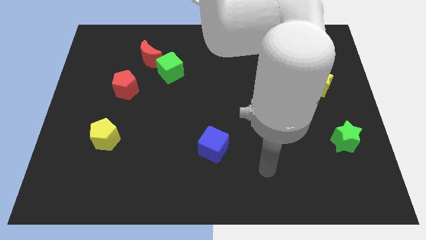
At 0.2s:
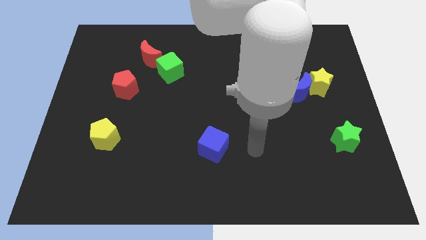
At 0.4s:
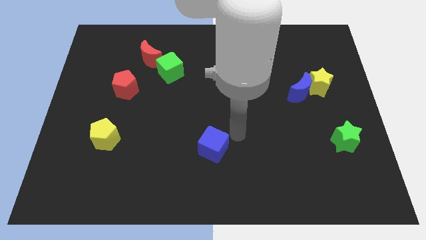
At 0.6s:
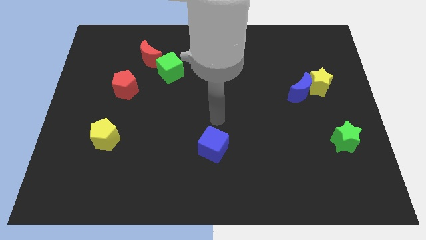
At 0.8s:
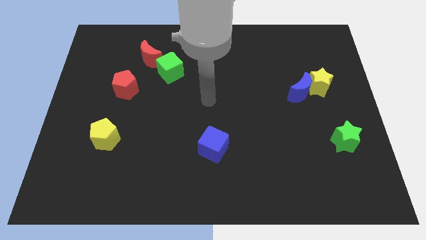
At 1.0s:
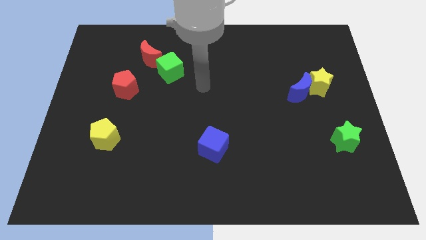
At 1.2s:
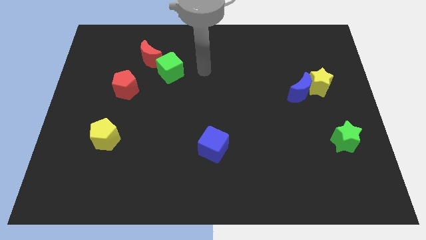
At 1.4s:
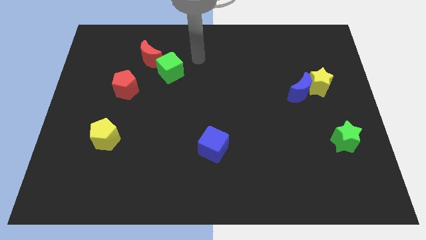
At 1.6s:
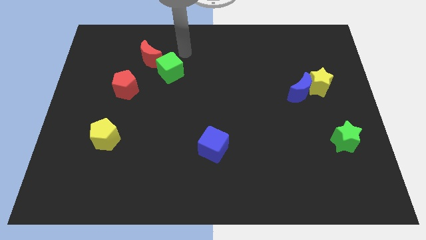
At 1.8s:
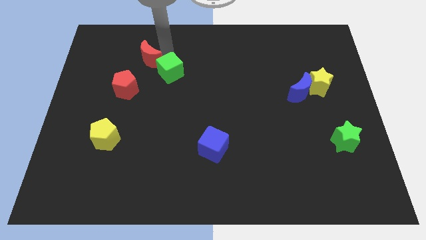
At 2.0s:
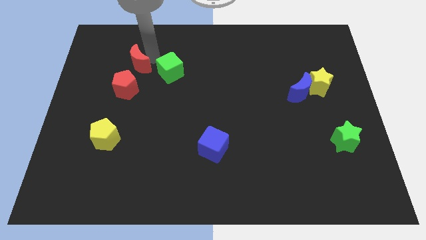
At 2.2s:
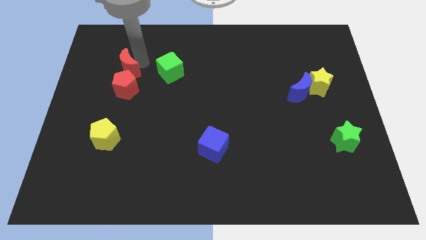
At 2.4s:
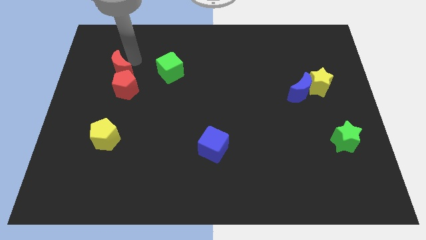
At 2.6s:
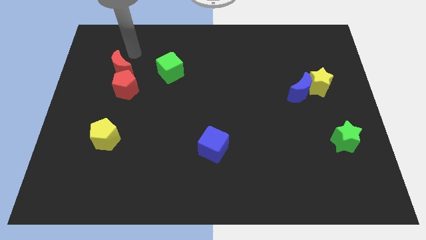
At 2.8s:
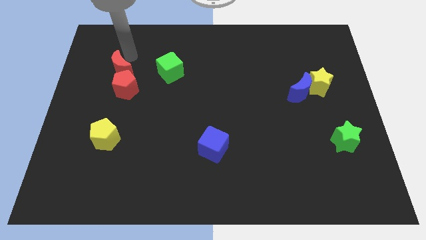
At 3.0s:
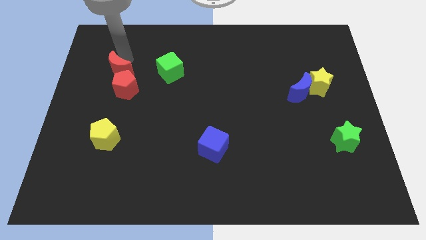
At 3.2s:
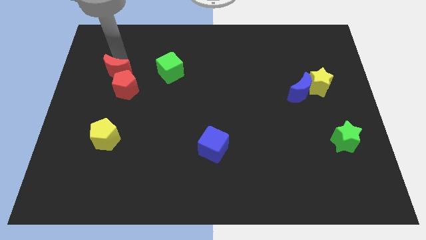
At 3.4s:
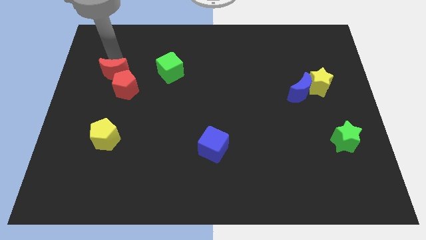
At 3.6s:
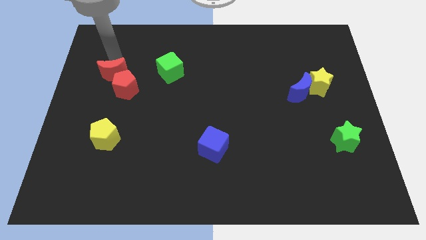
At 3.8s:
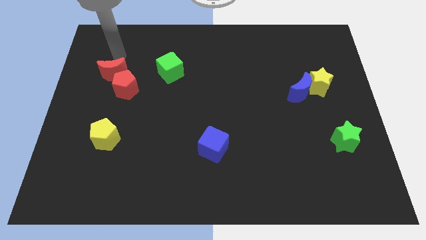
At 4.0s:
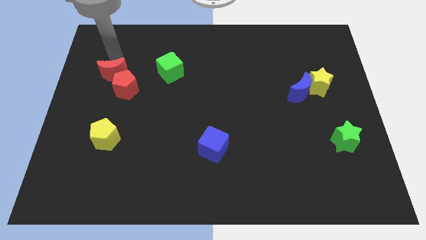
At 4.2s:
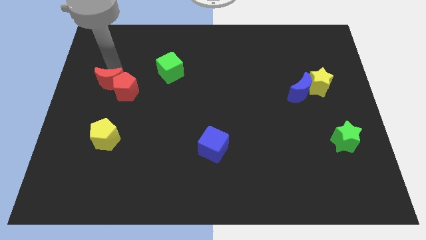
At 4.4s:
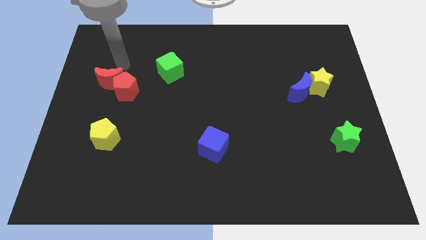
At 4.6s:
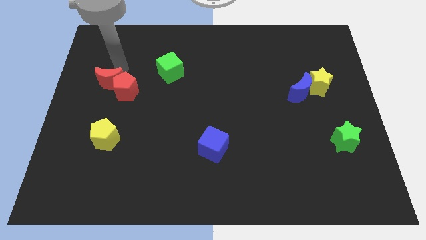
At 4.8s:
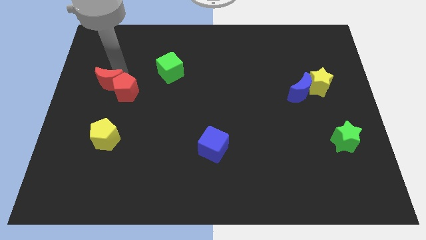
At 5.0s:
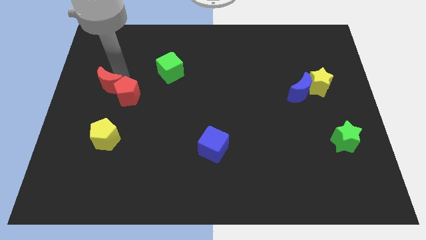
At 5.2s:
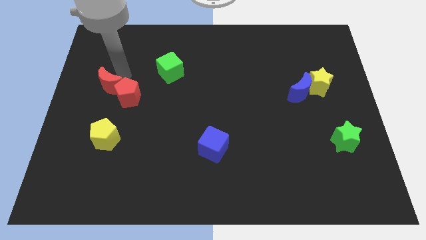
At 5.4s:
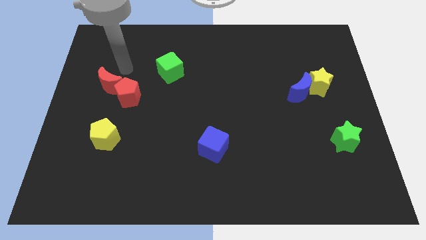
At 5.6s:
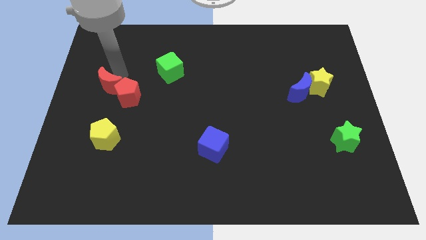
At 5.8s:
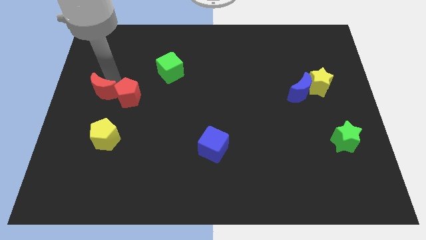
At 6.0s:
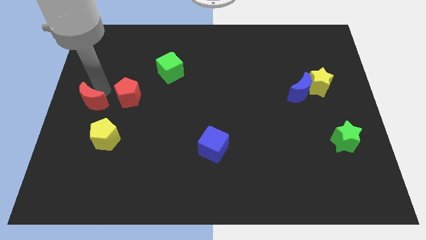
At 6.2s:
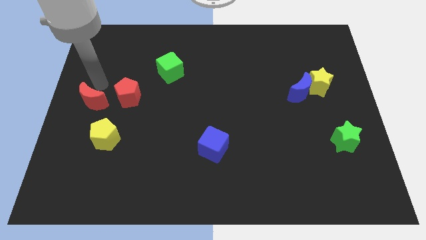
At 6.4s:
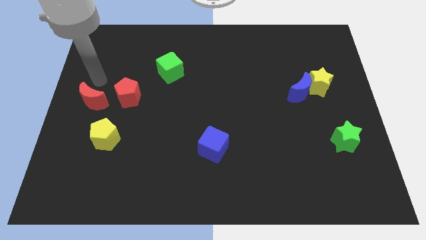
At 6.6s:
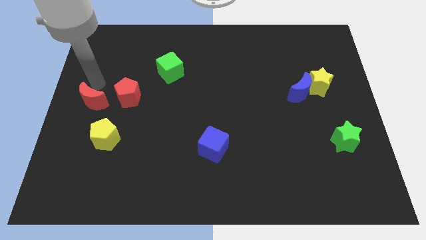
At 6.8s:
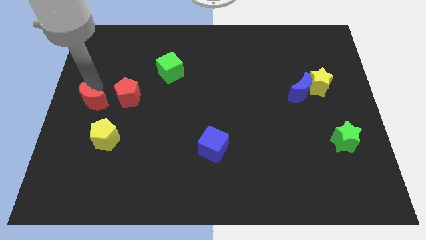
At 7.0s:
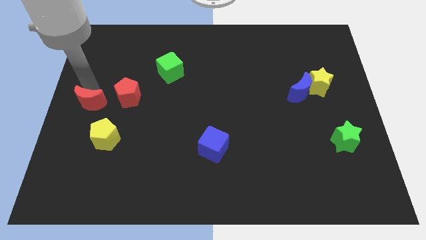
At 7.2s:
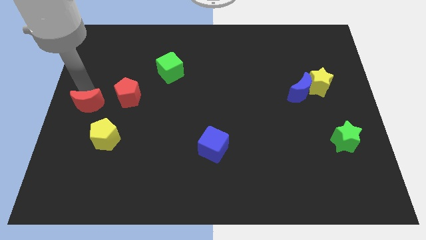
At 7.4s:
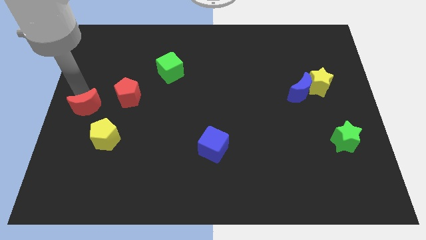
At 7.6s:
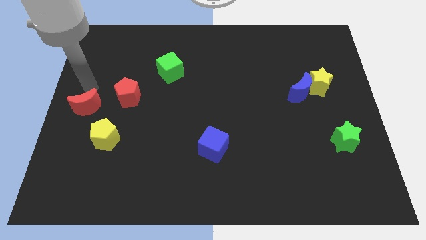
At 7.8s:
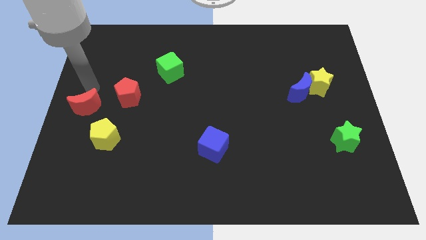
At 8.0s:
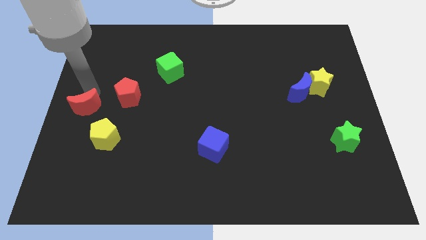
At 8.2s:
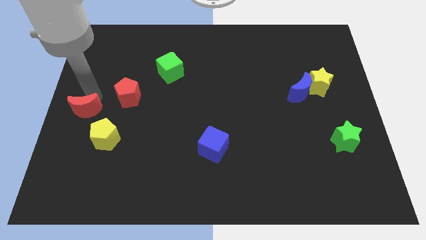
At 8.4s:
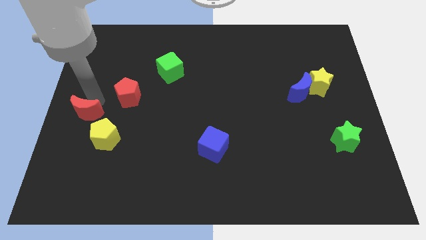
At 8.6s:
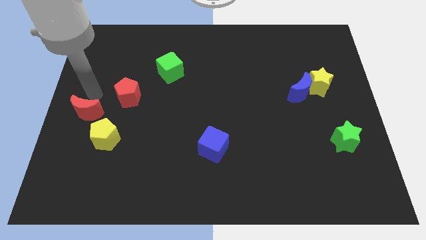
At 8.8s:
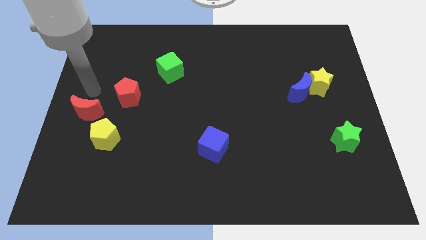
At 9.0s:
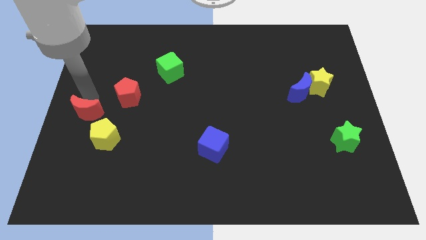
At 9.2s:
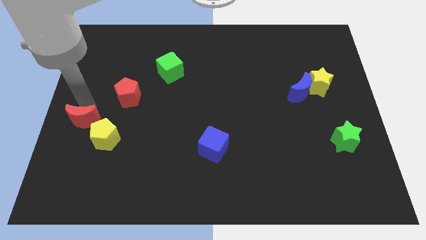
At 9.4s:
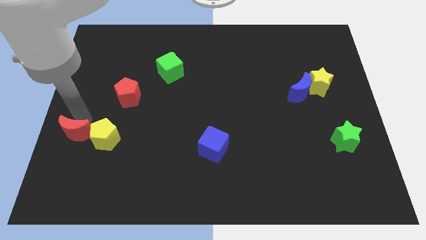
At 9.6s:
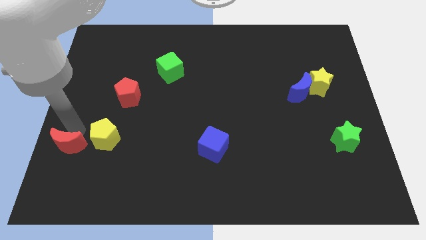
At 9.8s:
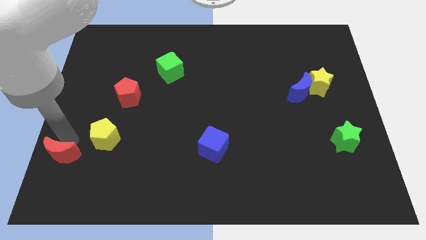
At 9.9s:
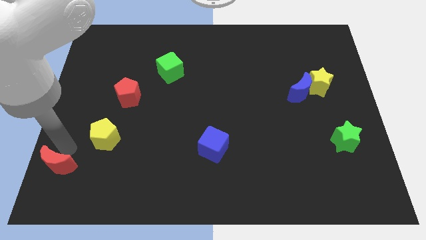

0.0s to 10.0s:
push the red moon to the bottom left of the board

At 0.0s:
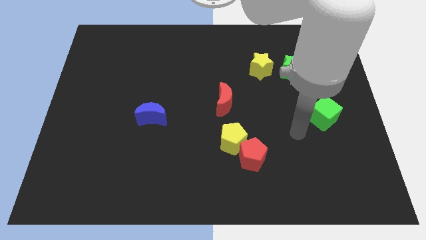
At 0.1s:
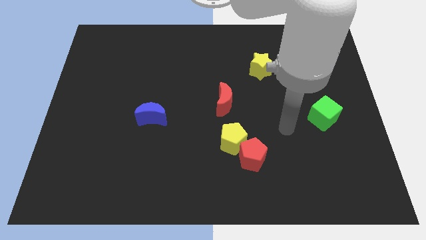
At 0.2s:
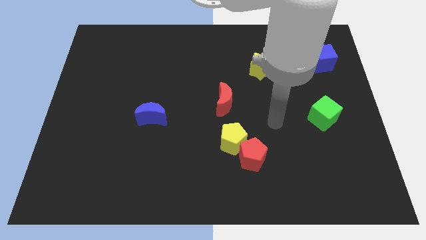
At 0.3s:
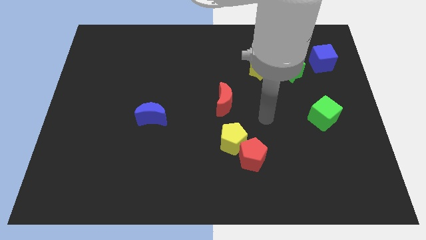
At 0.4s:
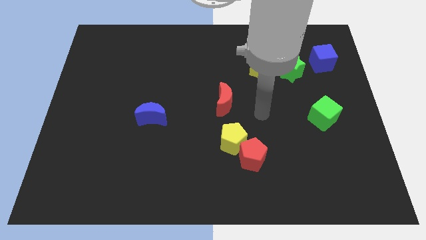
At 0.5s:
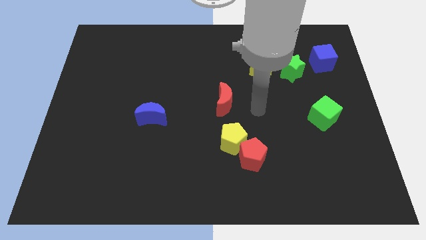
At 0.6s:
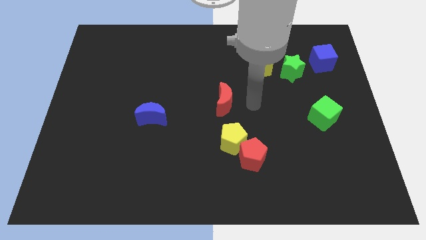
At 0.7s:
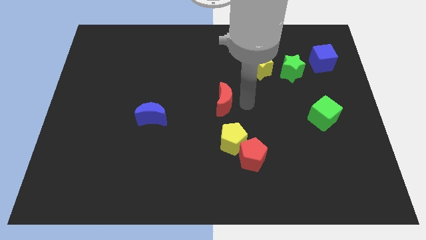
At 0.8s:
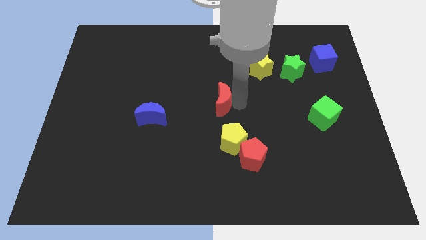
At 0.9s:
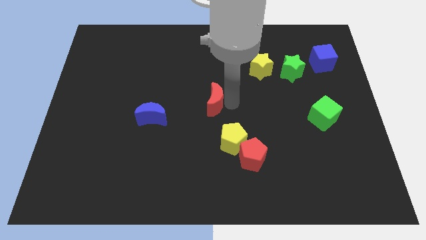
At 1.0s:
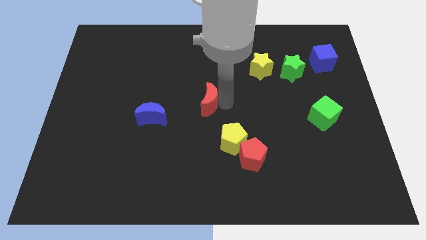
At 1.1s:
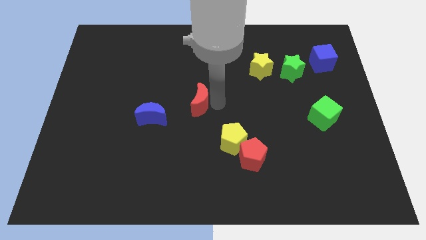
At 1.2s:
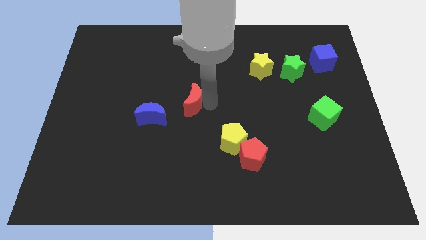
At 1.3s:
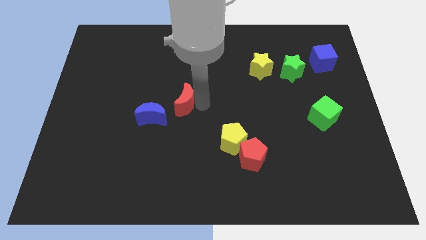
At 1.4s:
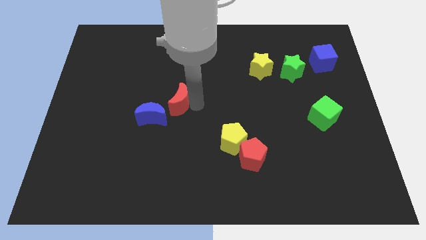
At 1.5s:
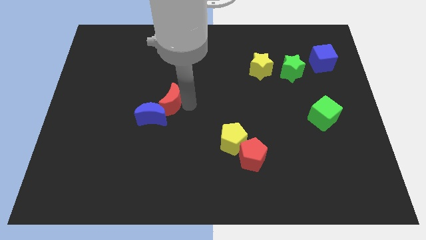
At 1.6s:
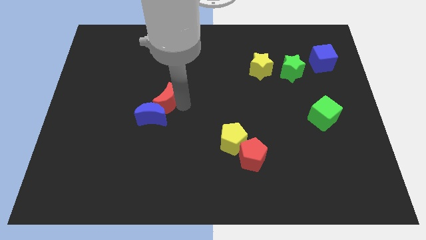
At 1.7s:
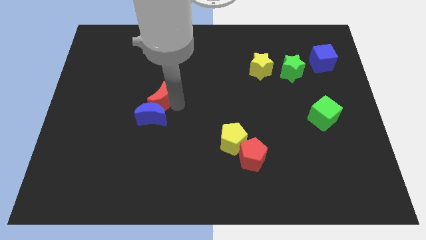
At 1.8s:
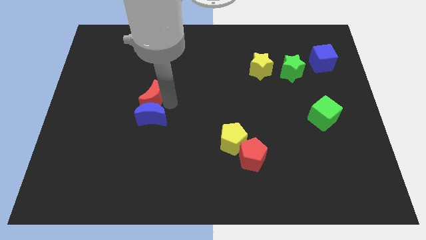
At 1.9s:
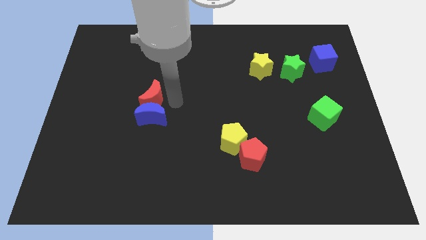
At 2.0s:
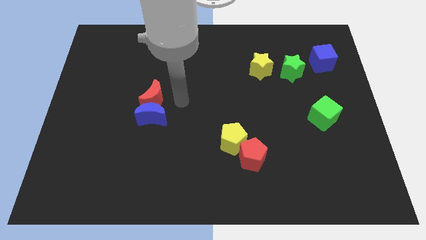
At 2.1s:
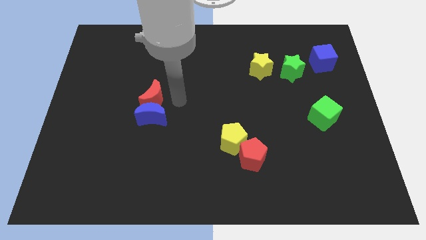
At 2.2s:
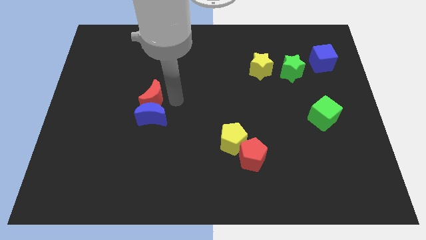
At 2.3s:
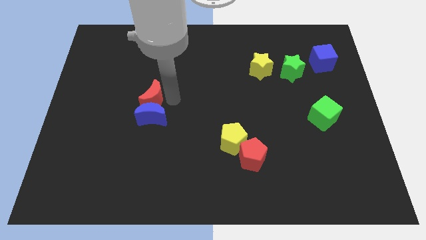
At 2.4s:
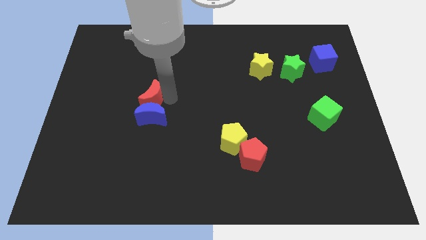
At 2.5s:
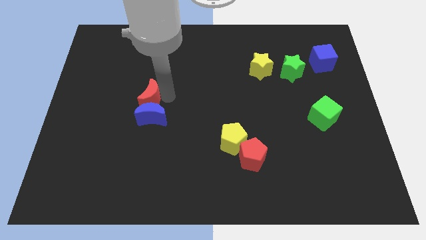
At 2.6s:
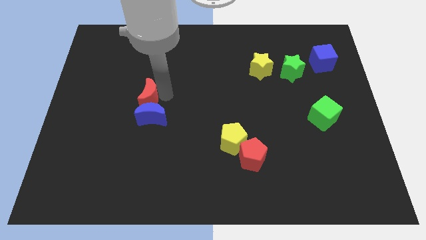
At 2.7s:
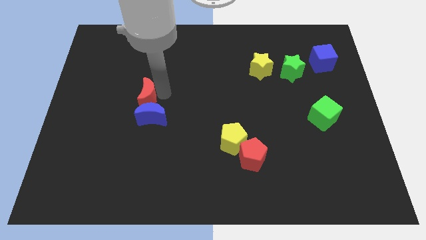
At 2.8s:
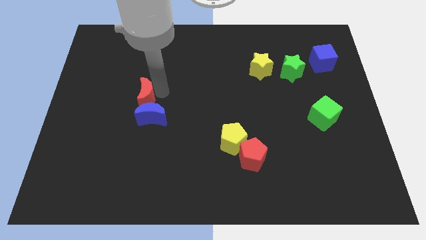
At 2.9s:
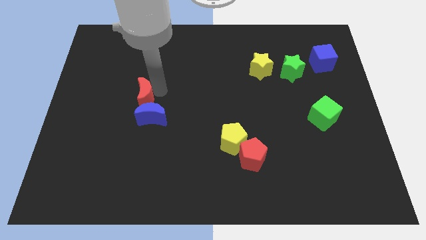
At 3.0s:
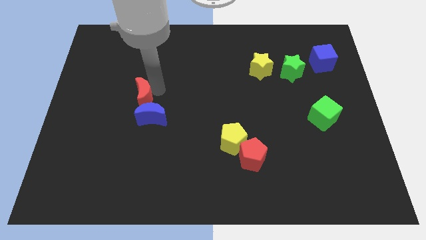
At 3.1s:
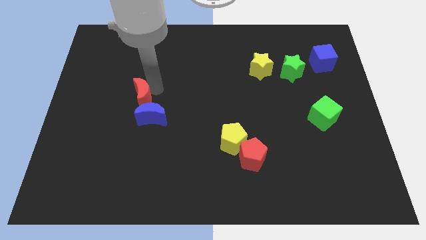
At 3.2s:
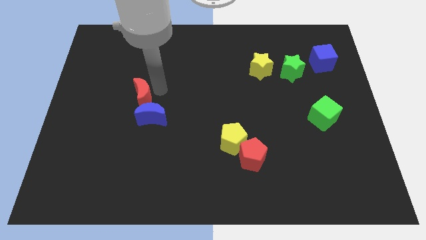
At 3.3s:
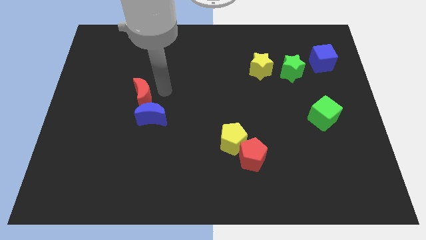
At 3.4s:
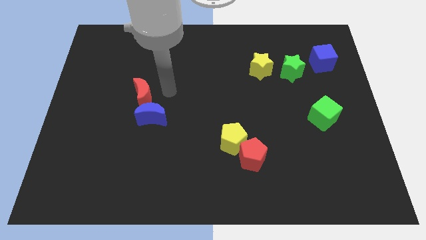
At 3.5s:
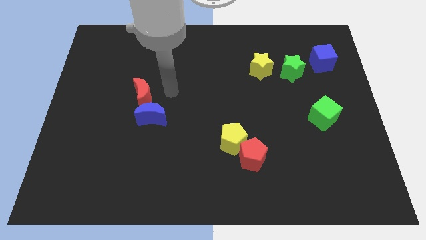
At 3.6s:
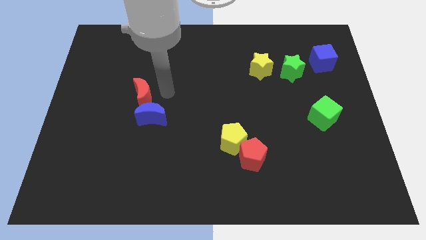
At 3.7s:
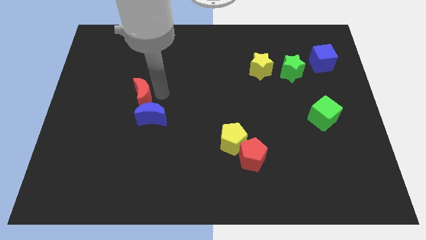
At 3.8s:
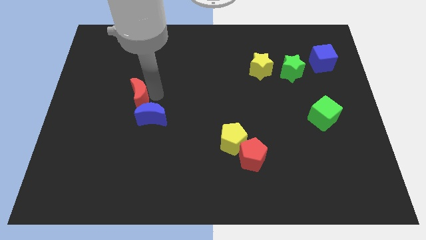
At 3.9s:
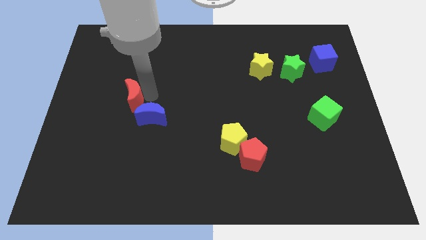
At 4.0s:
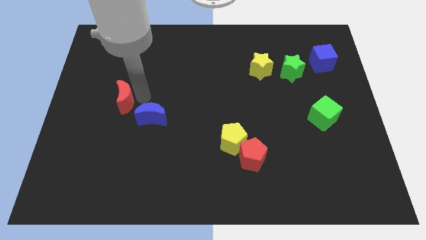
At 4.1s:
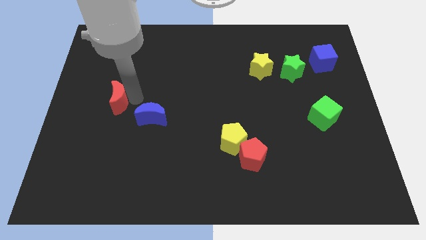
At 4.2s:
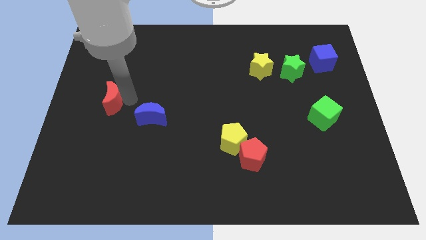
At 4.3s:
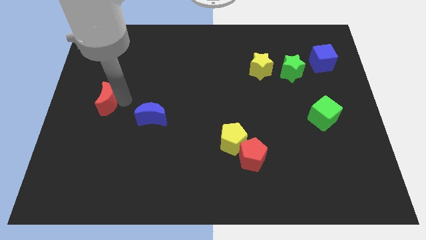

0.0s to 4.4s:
push the red moon to the left side of the board
